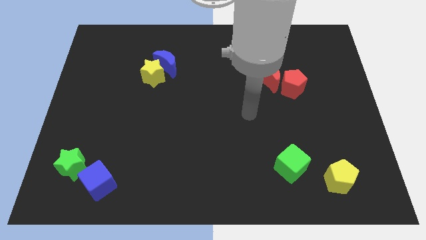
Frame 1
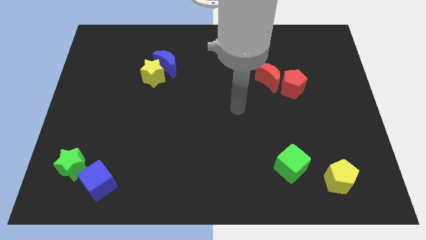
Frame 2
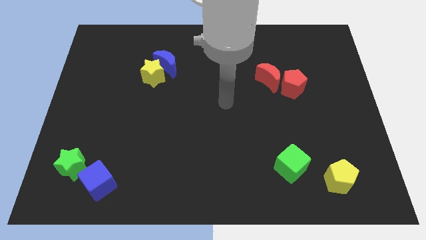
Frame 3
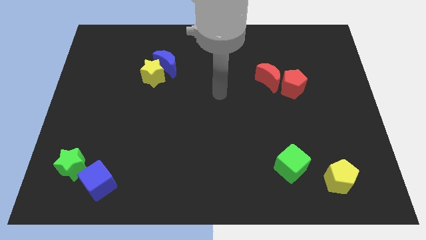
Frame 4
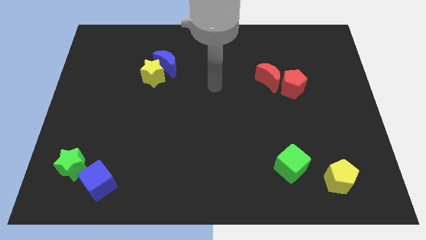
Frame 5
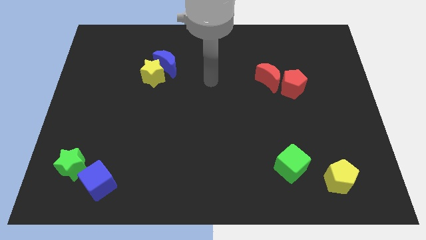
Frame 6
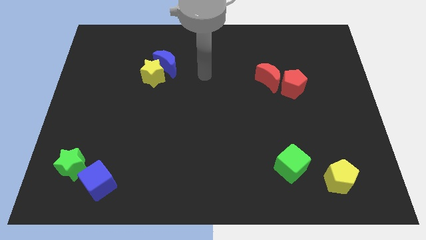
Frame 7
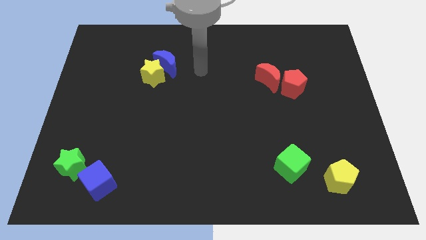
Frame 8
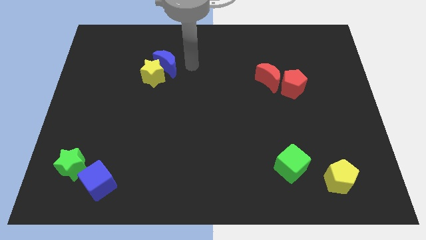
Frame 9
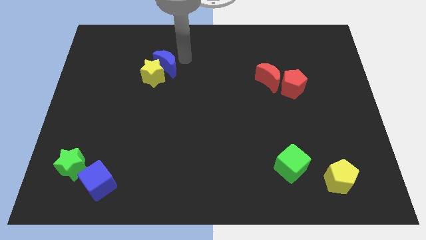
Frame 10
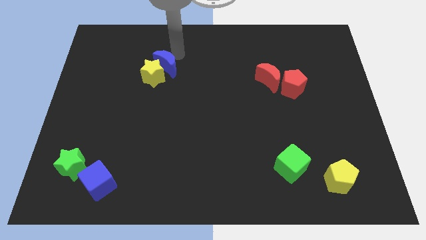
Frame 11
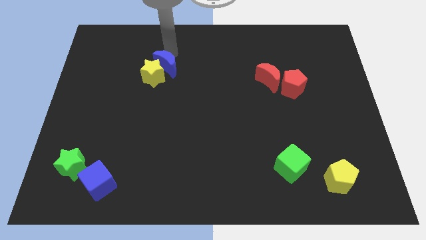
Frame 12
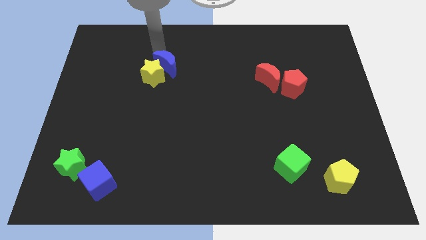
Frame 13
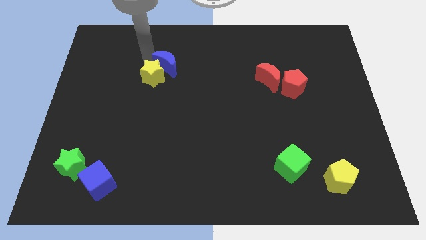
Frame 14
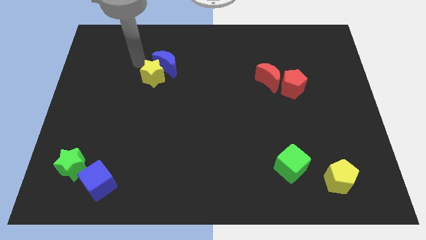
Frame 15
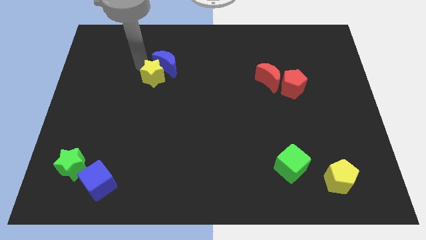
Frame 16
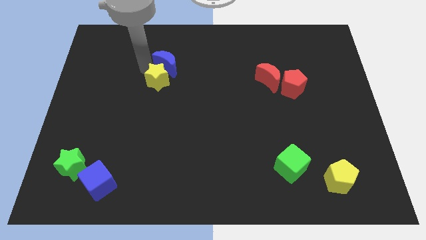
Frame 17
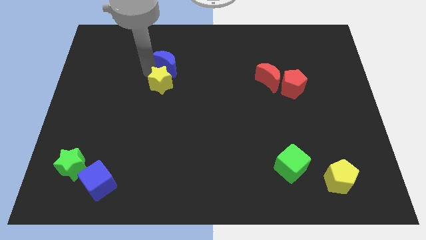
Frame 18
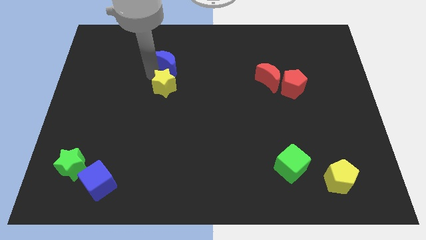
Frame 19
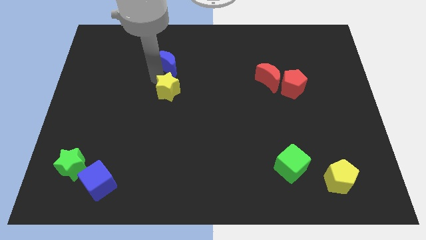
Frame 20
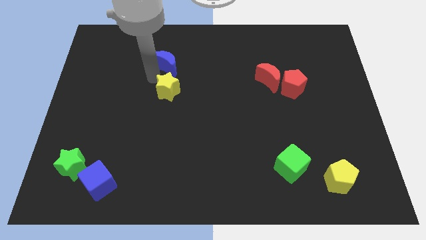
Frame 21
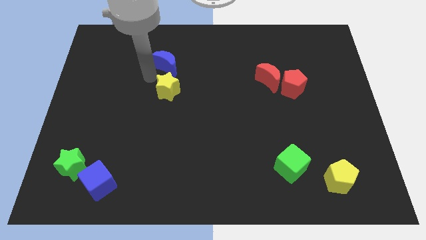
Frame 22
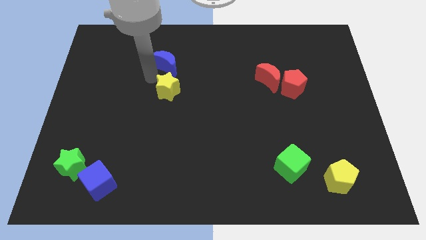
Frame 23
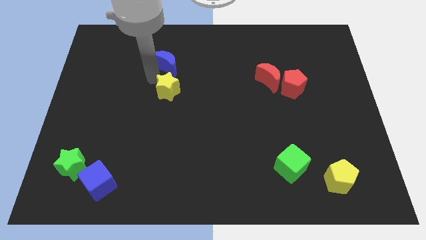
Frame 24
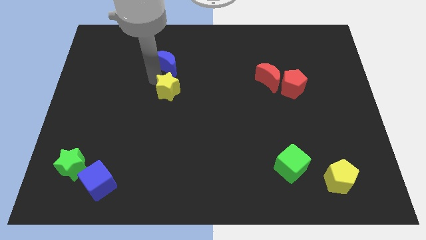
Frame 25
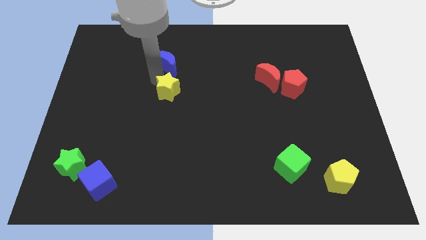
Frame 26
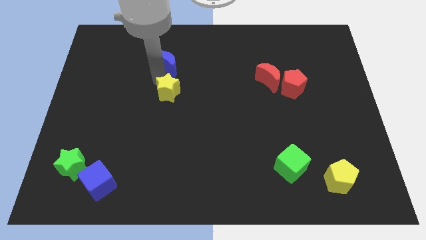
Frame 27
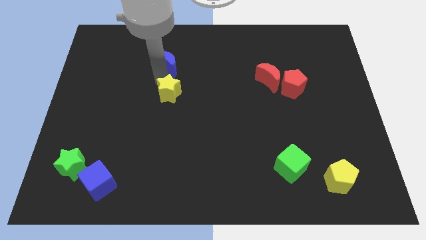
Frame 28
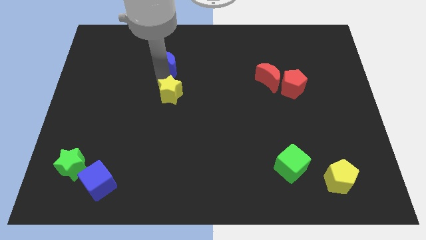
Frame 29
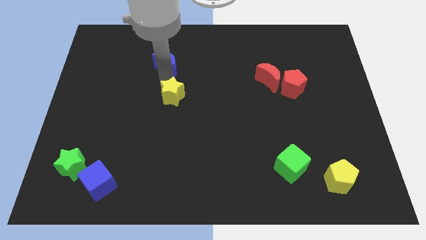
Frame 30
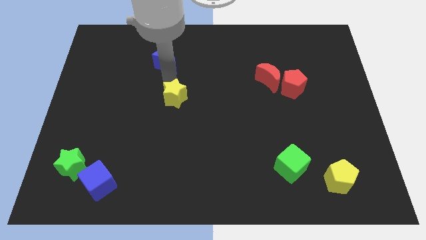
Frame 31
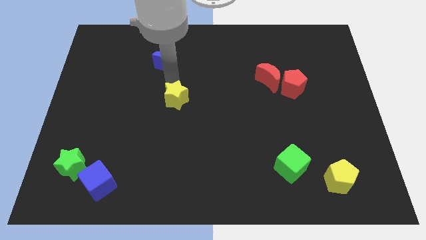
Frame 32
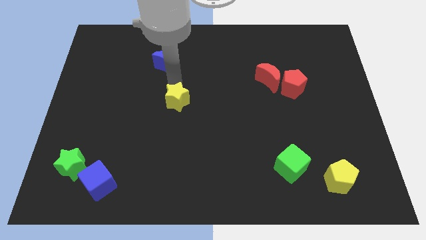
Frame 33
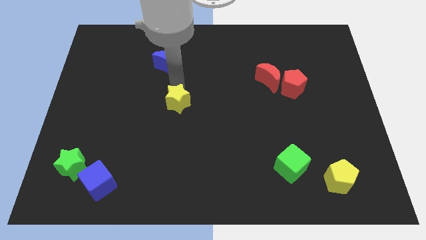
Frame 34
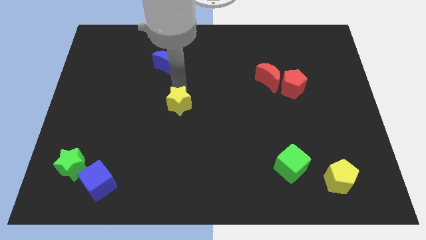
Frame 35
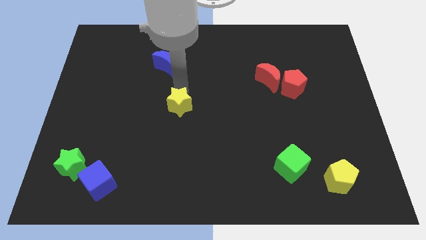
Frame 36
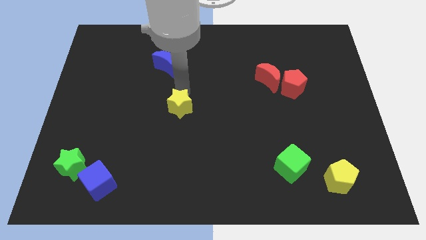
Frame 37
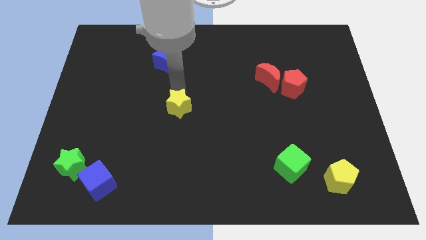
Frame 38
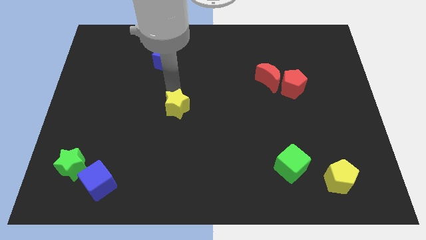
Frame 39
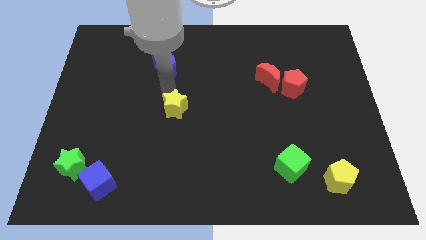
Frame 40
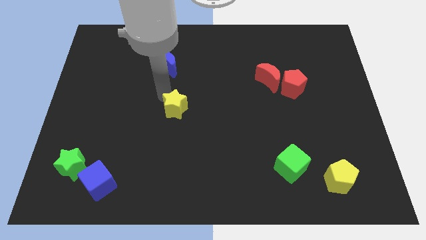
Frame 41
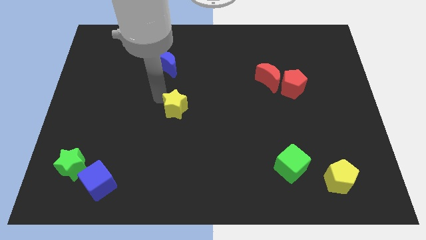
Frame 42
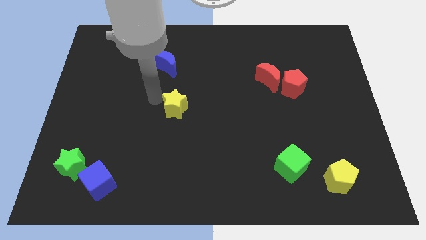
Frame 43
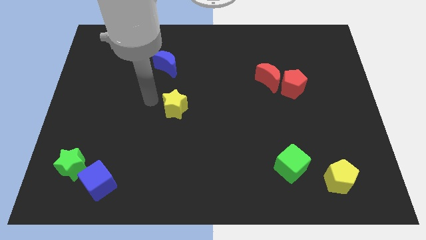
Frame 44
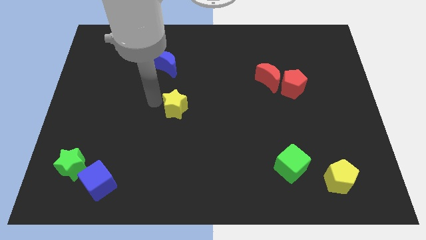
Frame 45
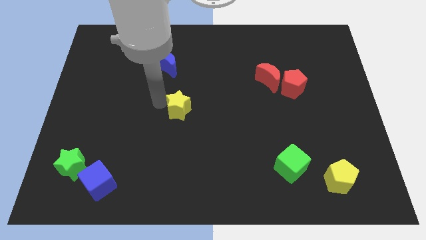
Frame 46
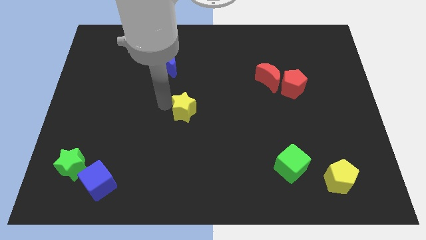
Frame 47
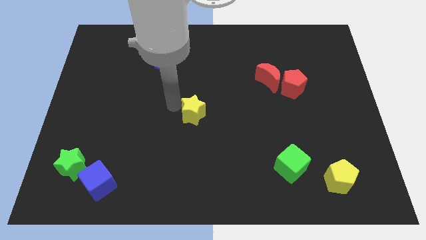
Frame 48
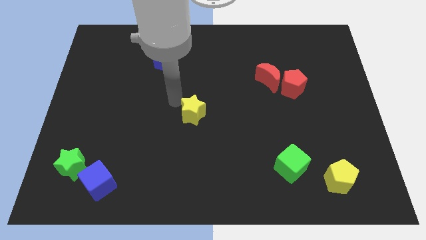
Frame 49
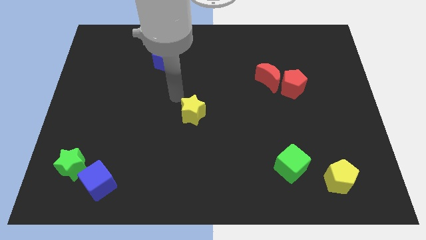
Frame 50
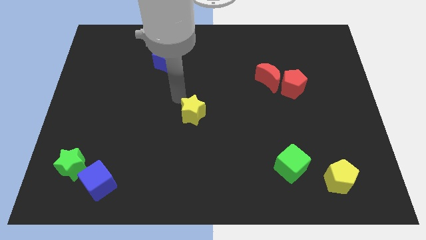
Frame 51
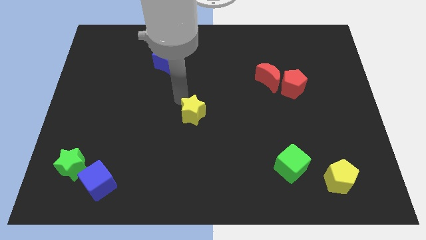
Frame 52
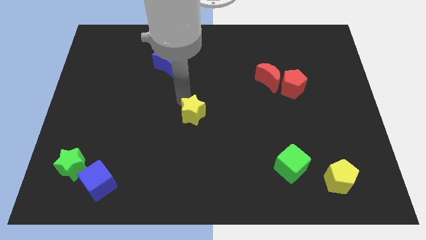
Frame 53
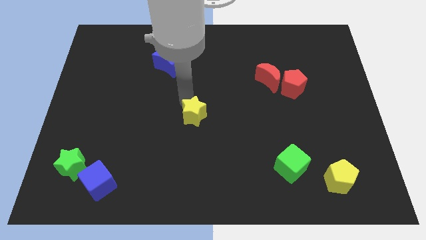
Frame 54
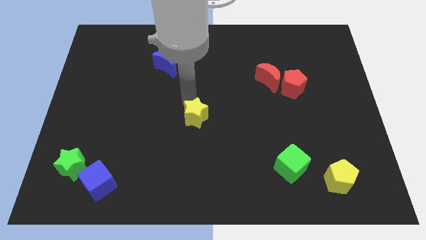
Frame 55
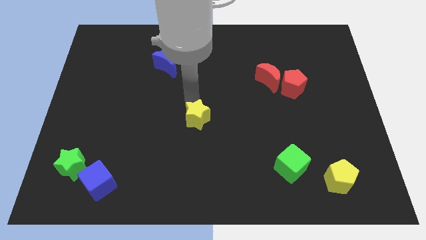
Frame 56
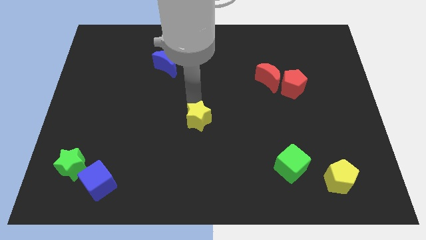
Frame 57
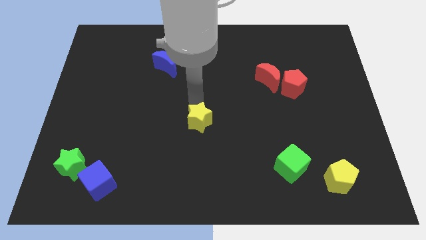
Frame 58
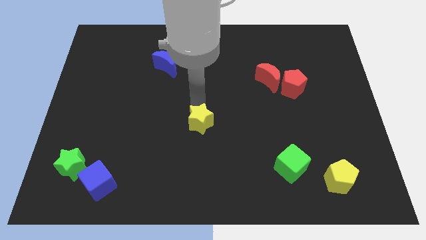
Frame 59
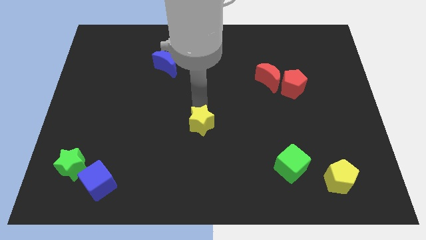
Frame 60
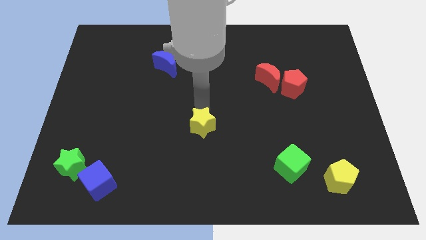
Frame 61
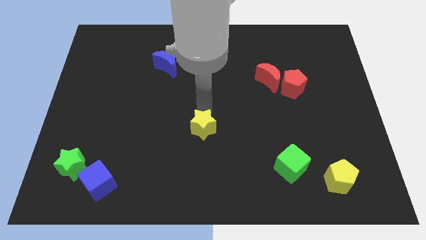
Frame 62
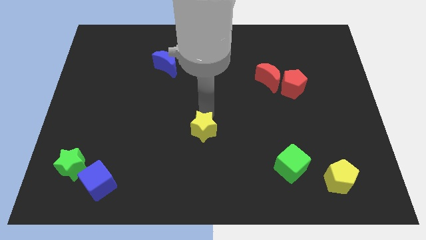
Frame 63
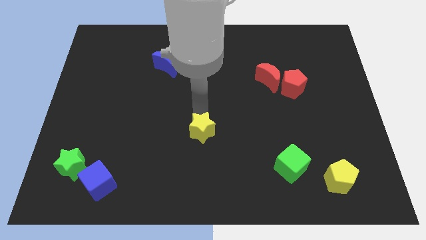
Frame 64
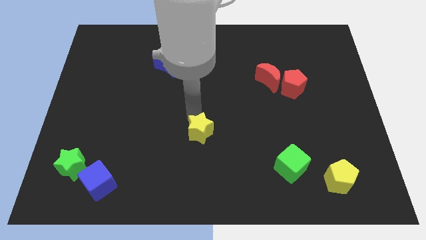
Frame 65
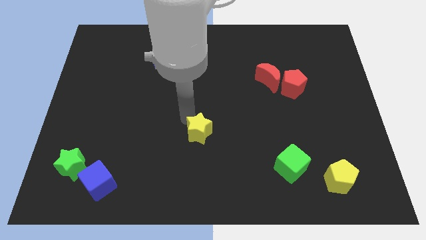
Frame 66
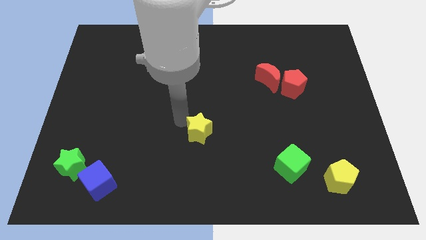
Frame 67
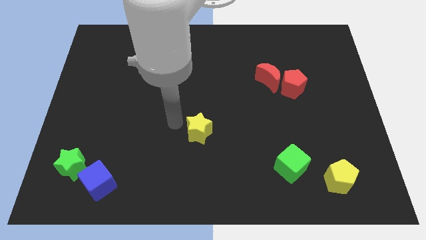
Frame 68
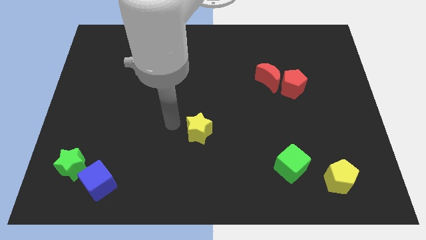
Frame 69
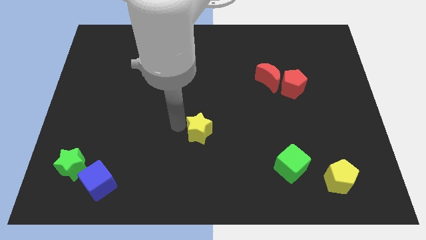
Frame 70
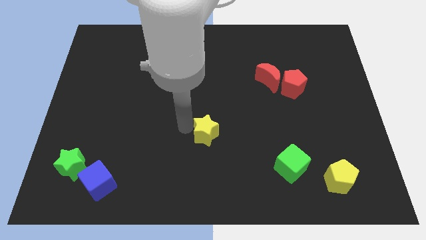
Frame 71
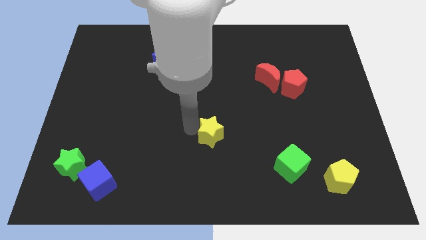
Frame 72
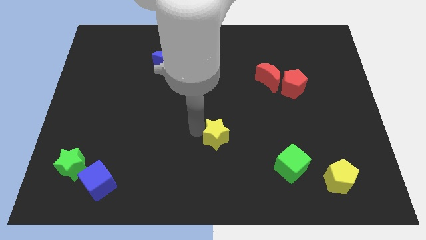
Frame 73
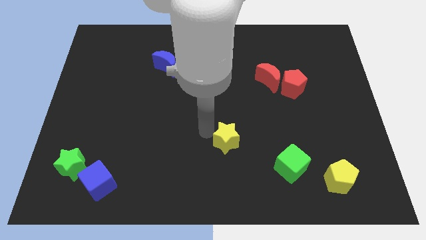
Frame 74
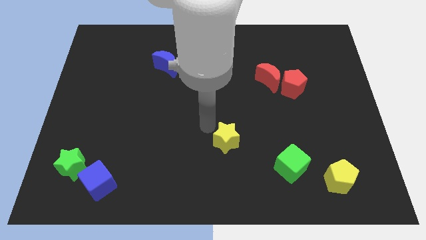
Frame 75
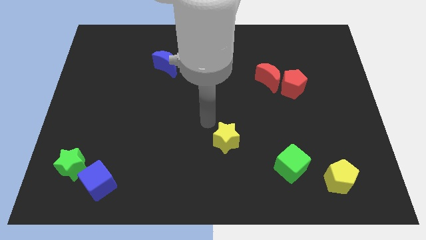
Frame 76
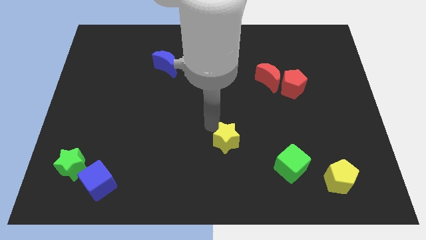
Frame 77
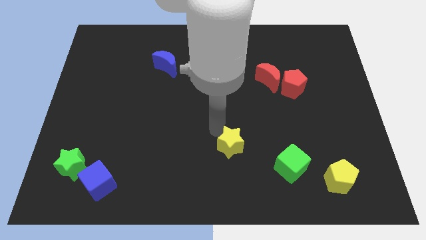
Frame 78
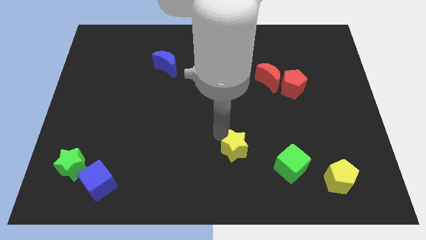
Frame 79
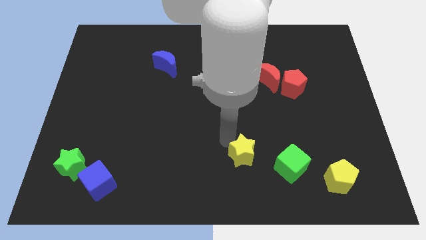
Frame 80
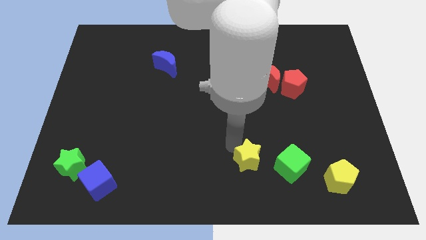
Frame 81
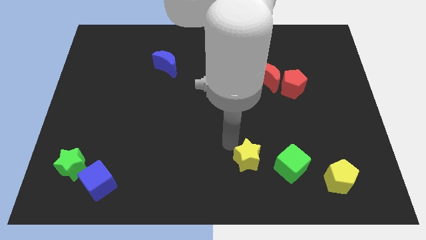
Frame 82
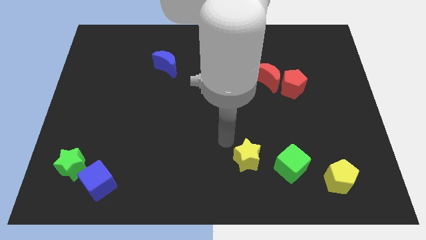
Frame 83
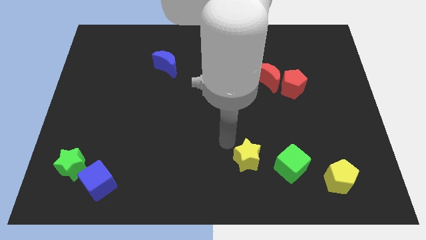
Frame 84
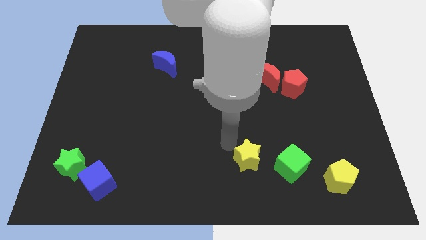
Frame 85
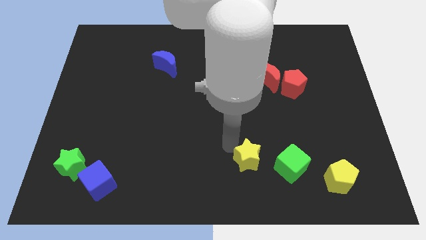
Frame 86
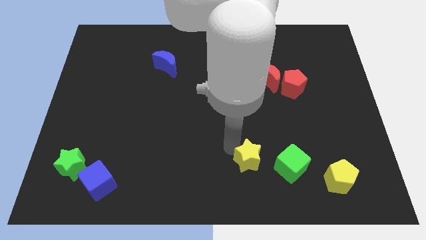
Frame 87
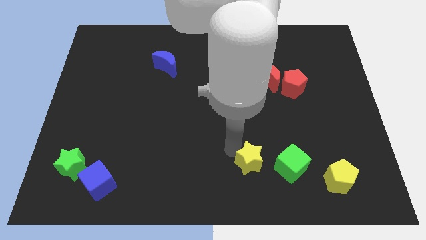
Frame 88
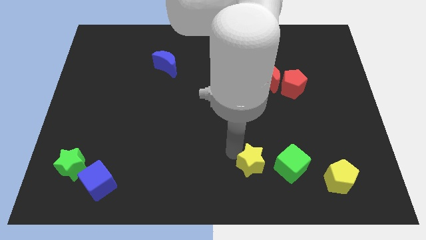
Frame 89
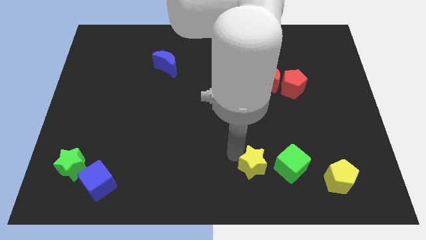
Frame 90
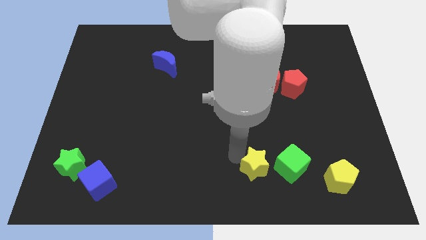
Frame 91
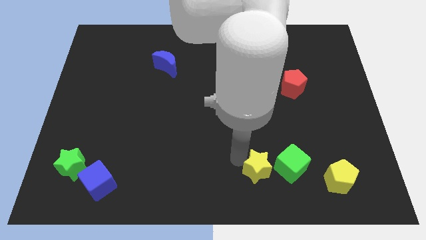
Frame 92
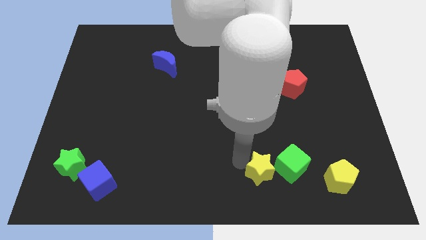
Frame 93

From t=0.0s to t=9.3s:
put the yellow star just left of the yellow pentagon
